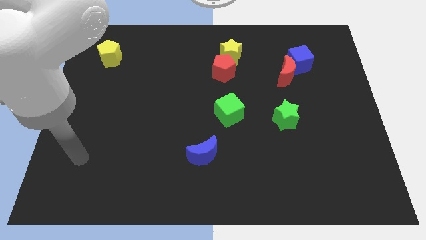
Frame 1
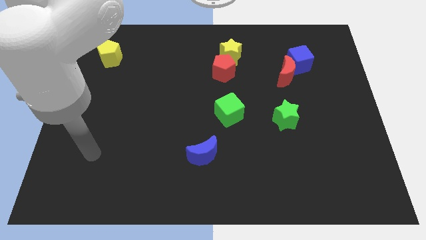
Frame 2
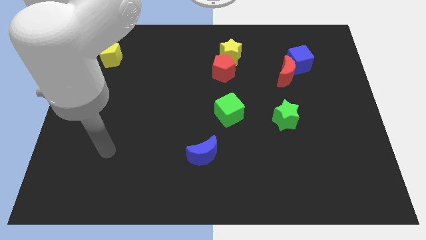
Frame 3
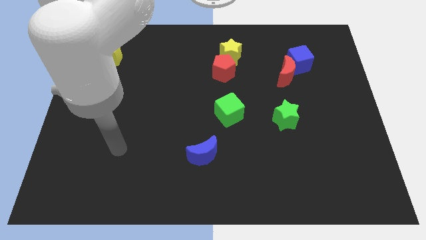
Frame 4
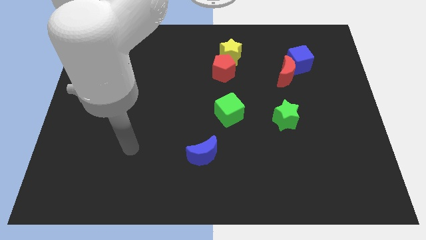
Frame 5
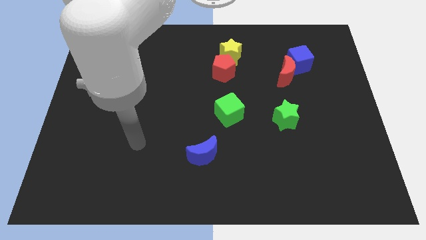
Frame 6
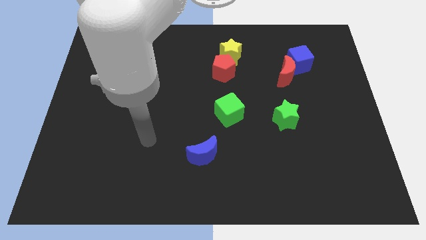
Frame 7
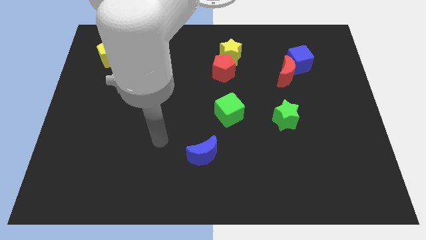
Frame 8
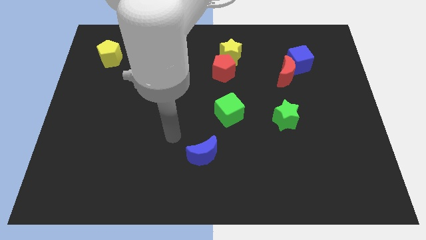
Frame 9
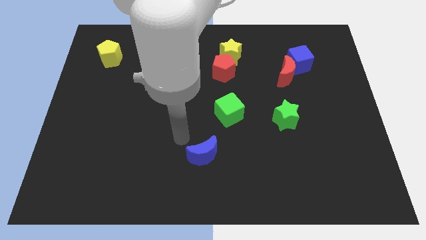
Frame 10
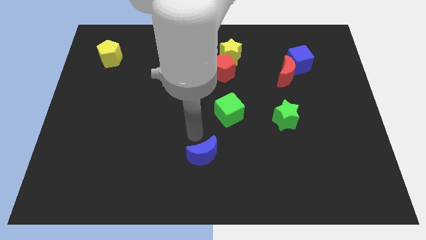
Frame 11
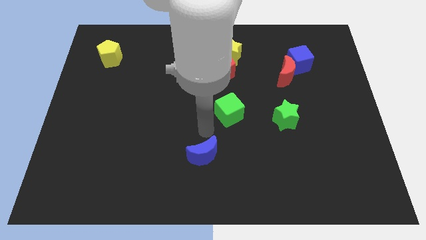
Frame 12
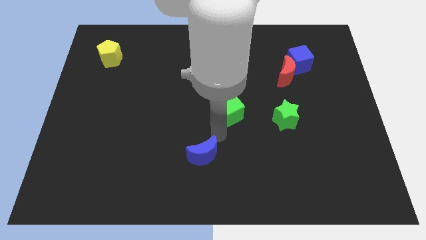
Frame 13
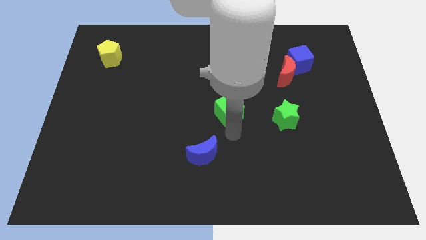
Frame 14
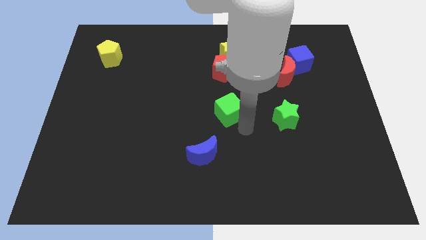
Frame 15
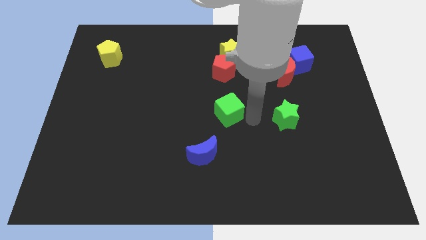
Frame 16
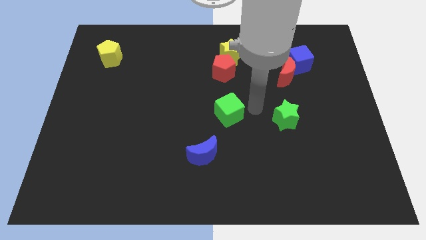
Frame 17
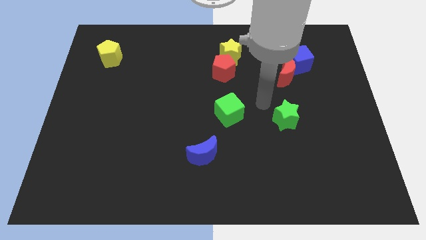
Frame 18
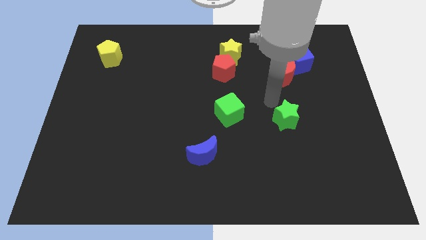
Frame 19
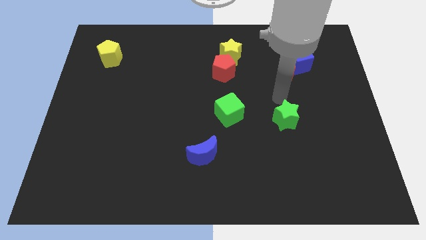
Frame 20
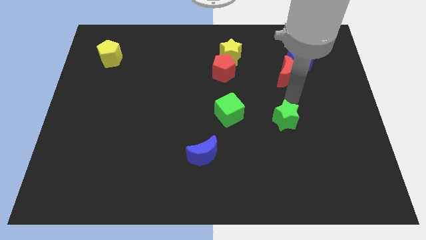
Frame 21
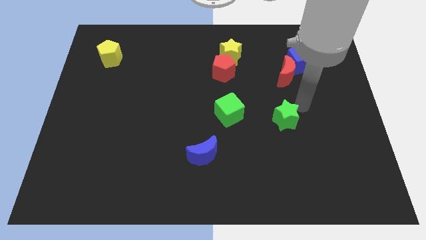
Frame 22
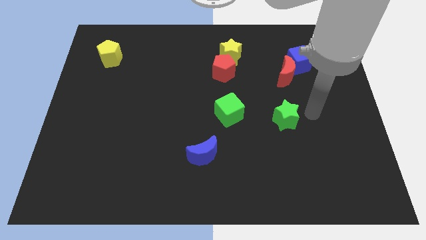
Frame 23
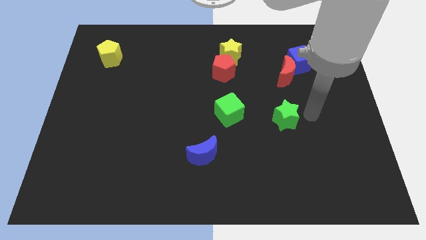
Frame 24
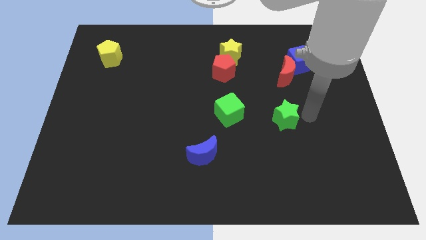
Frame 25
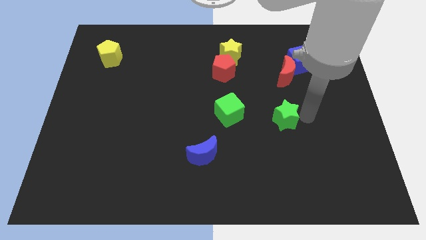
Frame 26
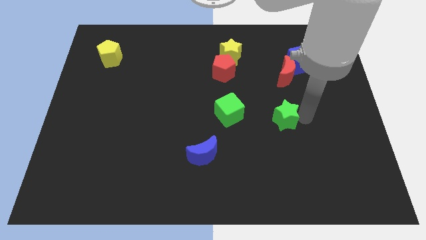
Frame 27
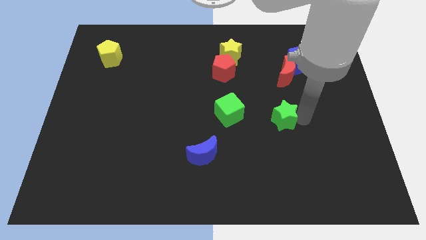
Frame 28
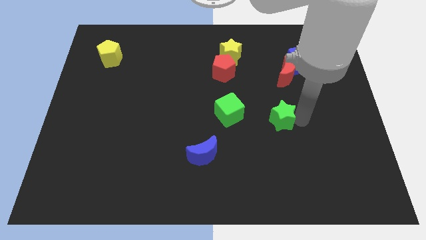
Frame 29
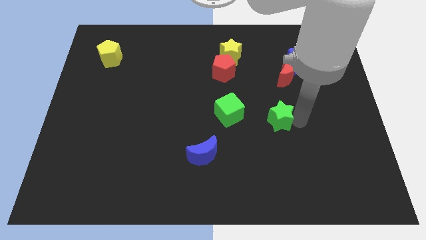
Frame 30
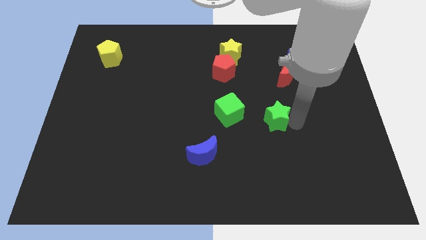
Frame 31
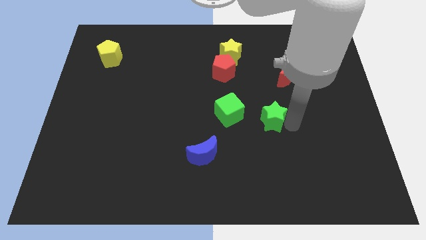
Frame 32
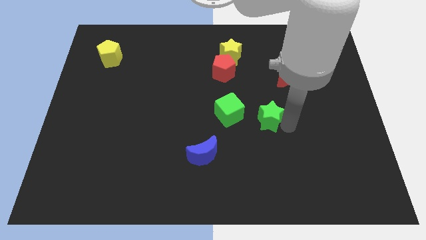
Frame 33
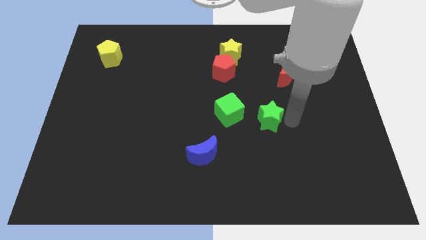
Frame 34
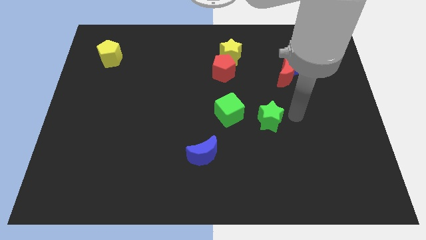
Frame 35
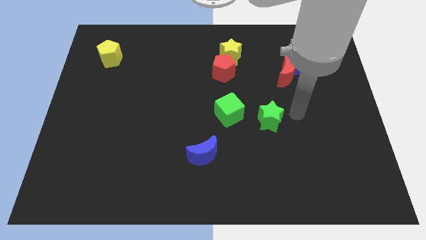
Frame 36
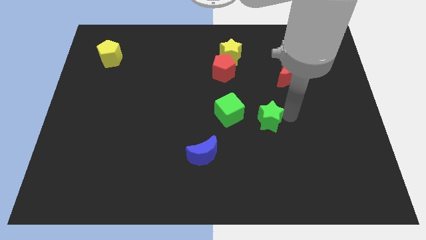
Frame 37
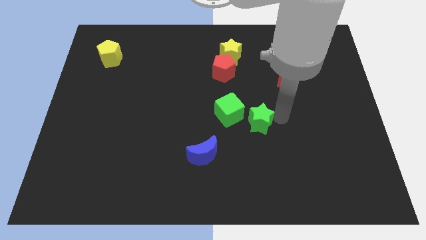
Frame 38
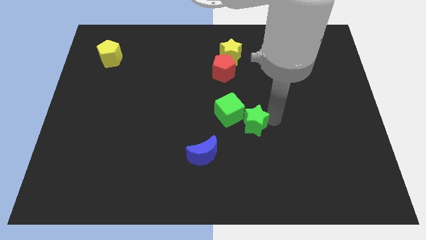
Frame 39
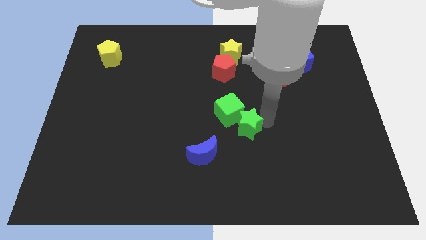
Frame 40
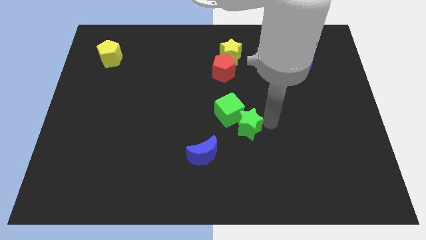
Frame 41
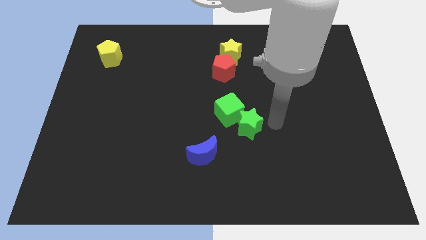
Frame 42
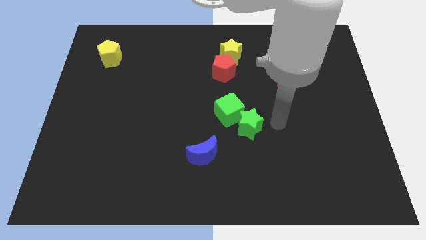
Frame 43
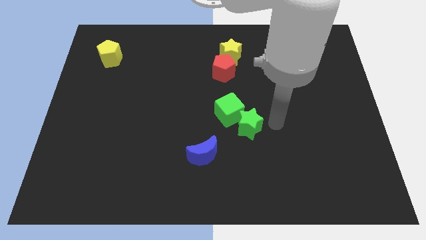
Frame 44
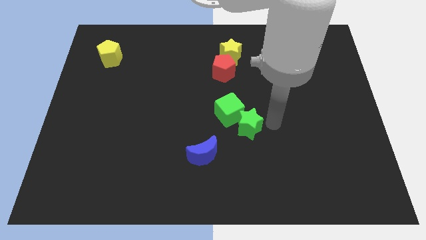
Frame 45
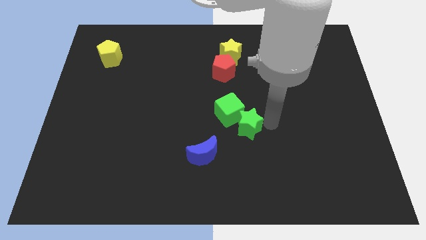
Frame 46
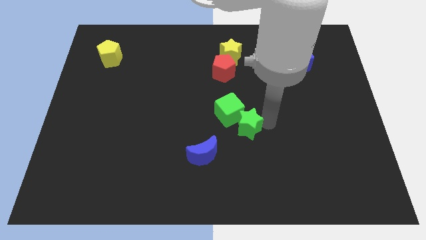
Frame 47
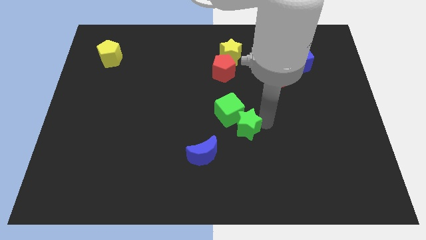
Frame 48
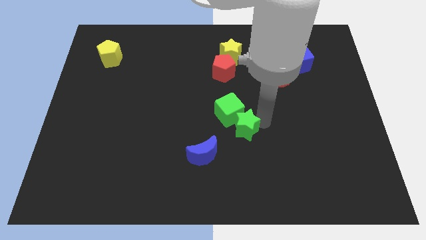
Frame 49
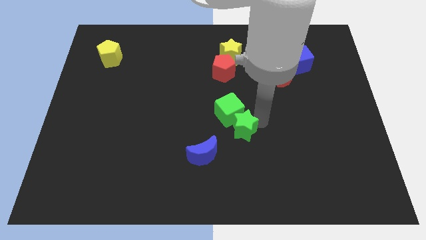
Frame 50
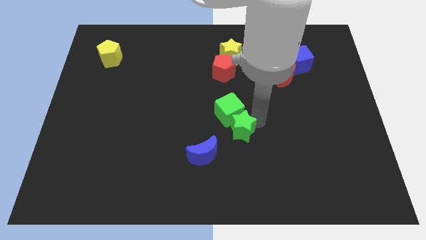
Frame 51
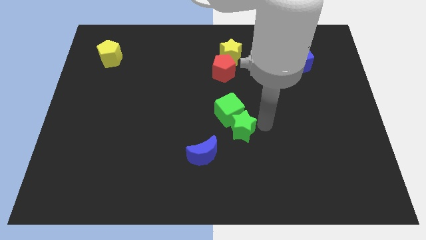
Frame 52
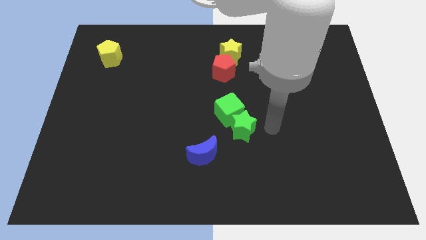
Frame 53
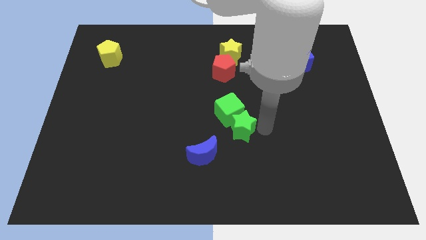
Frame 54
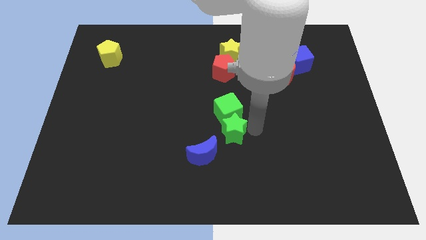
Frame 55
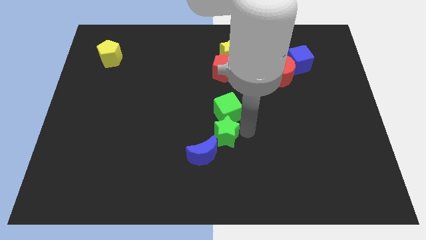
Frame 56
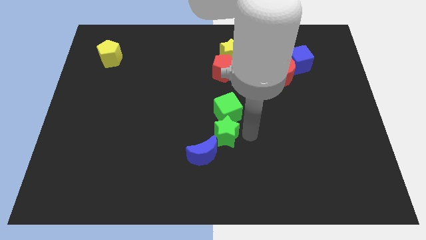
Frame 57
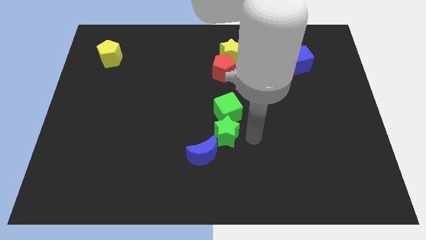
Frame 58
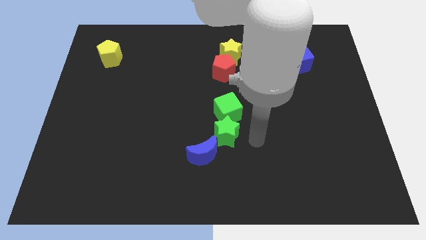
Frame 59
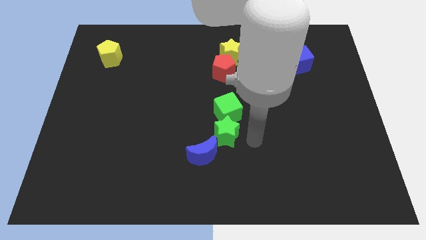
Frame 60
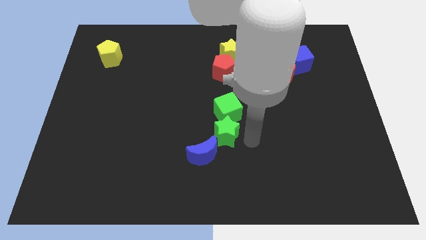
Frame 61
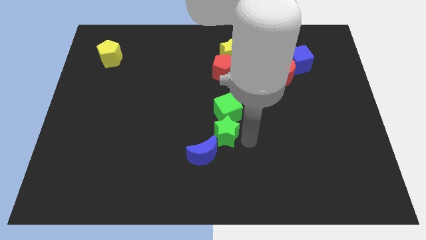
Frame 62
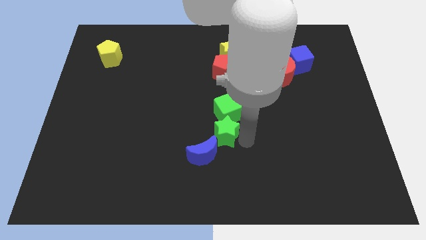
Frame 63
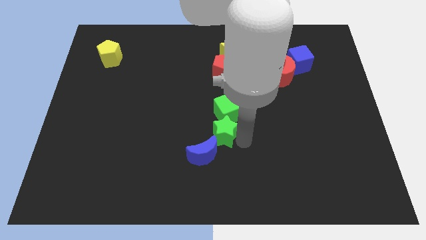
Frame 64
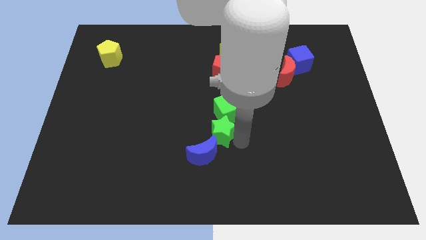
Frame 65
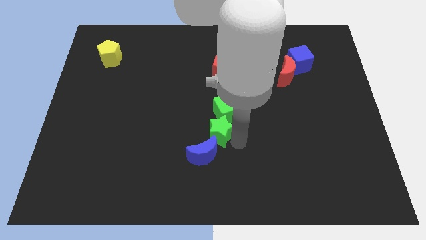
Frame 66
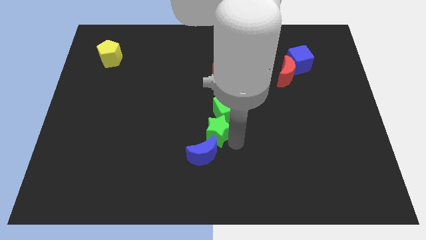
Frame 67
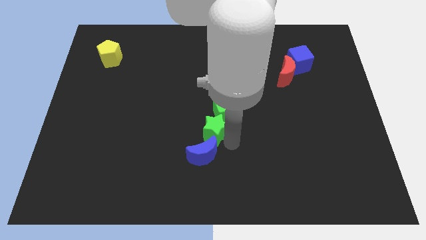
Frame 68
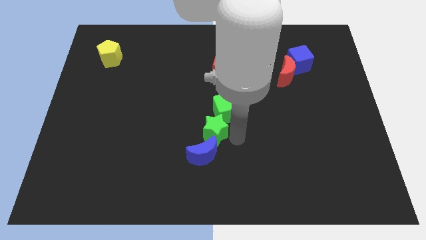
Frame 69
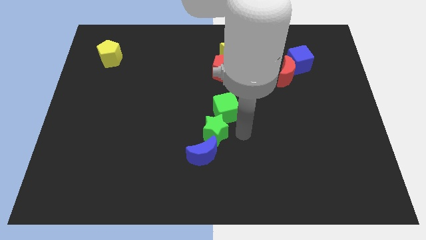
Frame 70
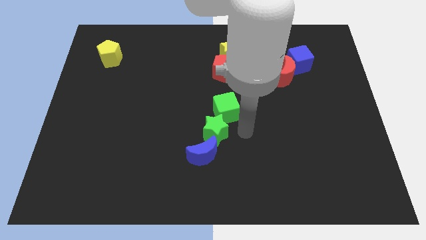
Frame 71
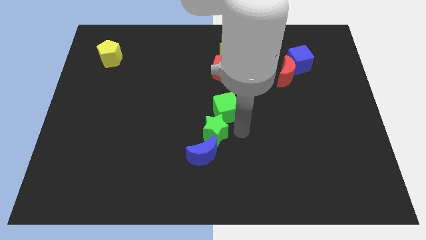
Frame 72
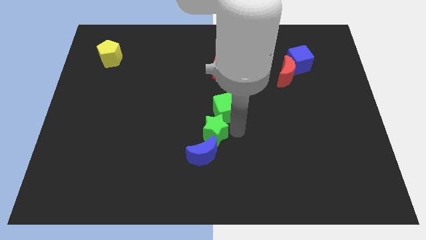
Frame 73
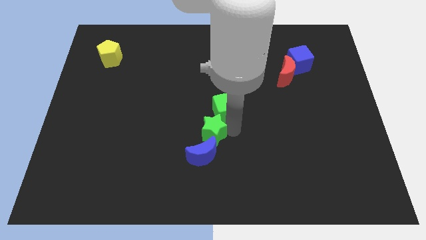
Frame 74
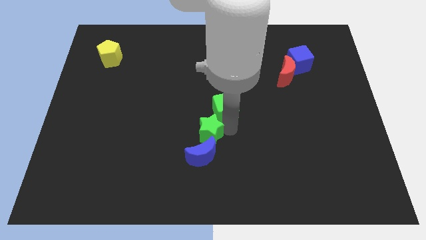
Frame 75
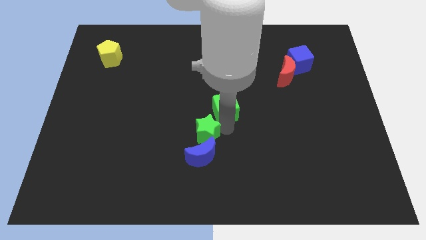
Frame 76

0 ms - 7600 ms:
move the green star to the top left side of the blue moon
